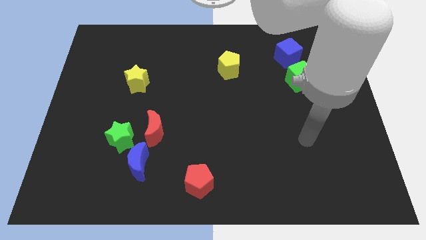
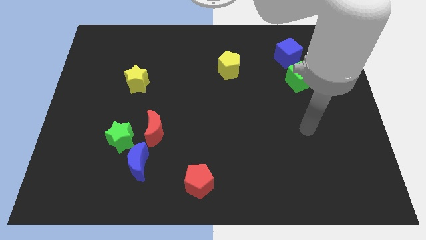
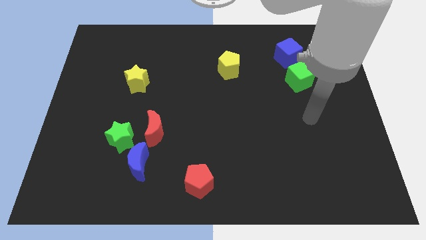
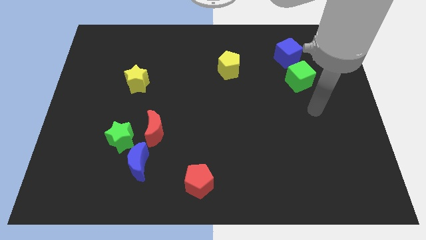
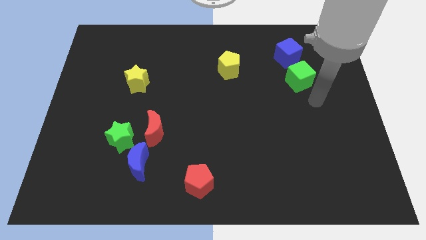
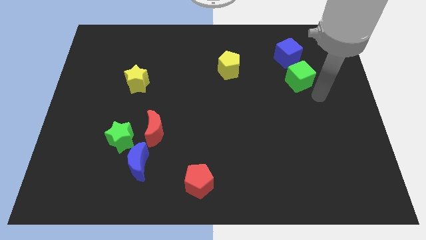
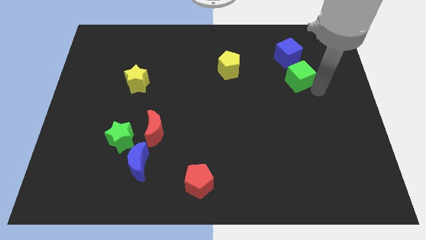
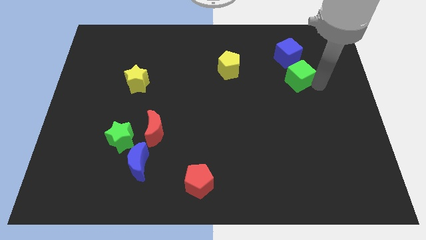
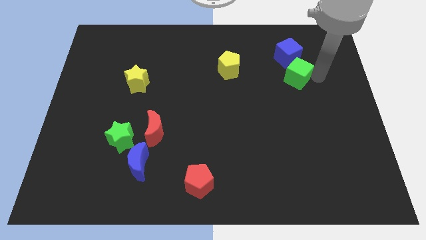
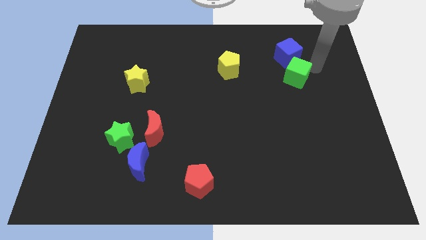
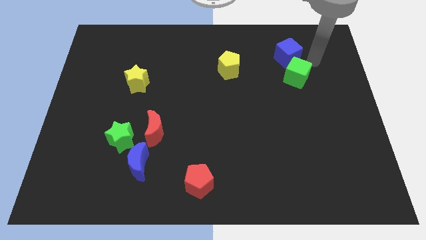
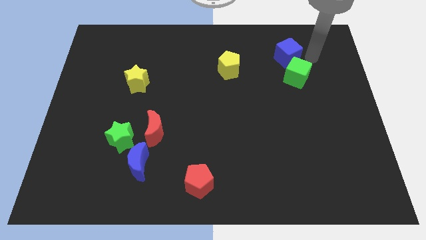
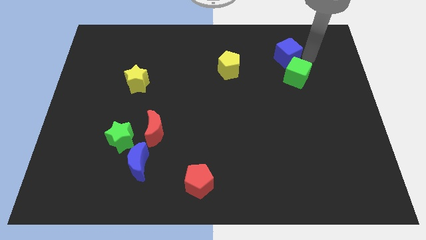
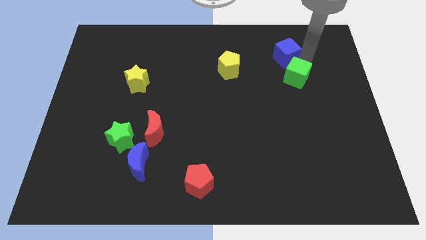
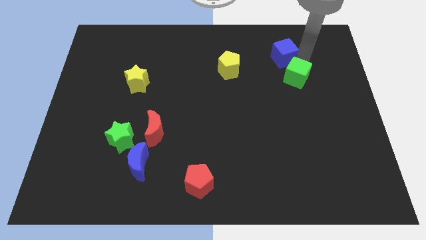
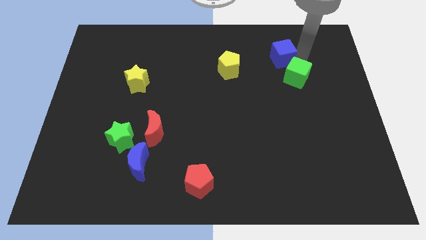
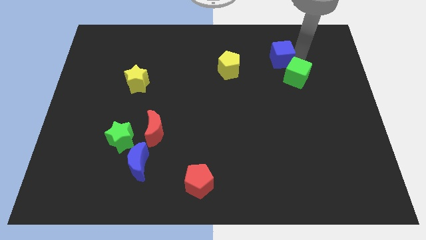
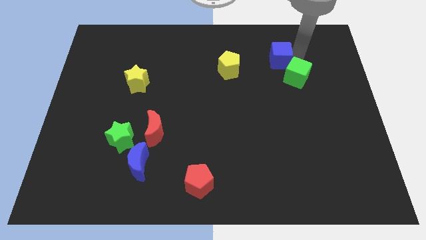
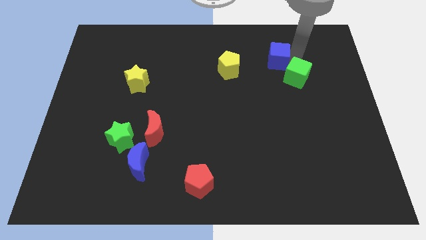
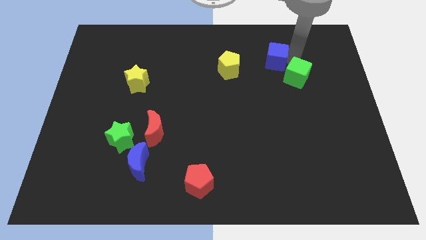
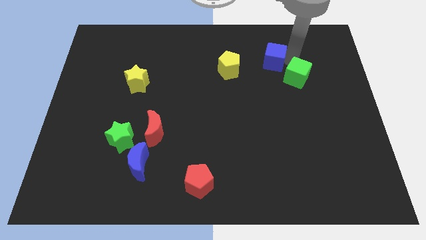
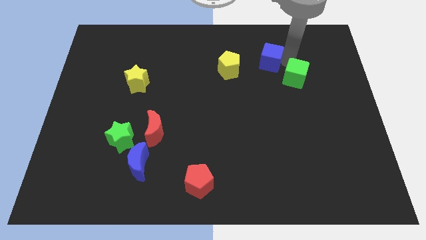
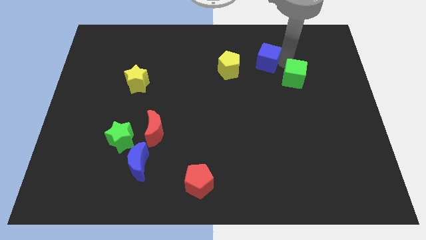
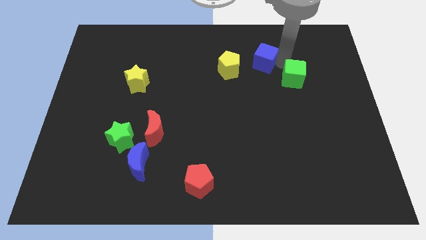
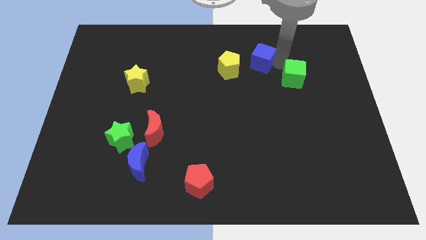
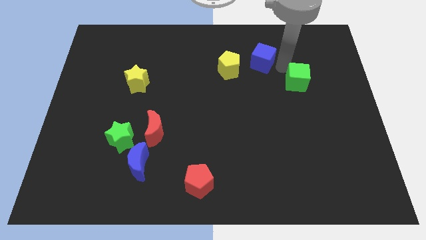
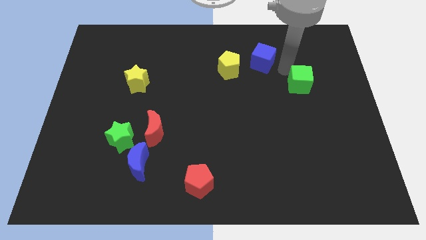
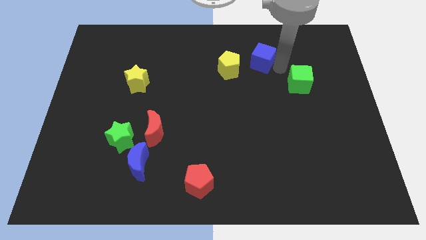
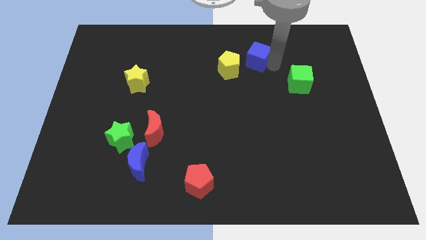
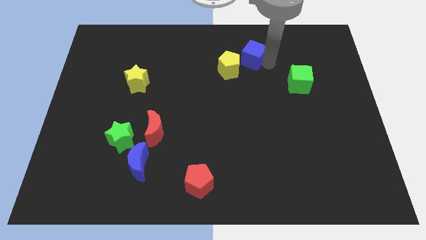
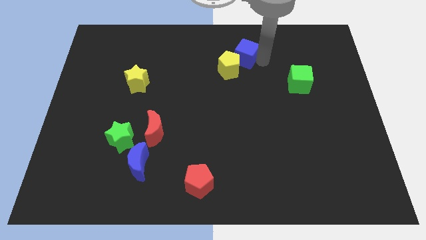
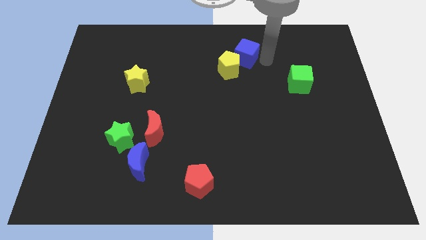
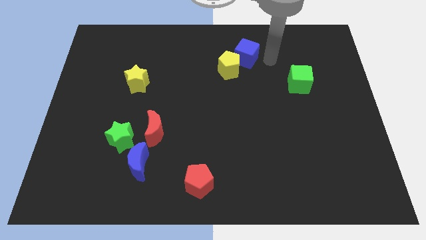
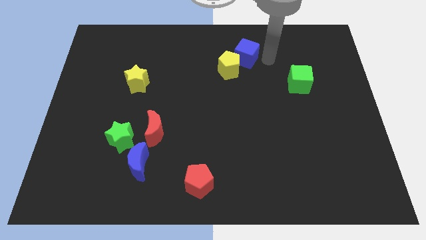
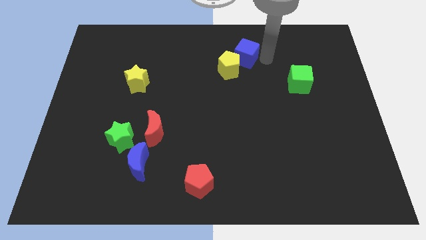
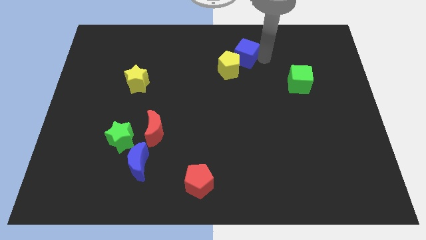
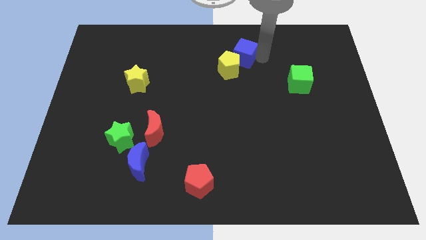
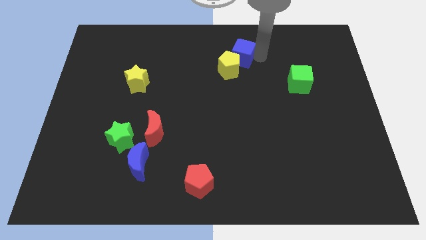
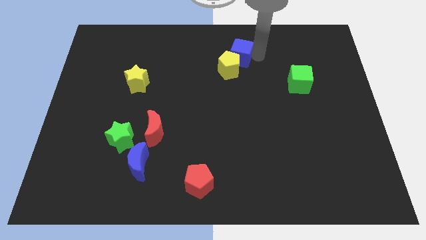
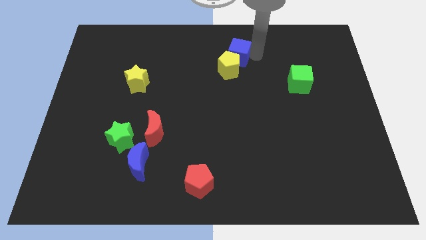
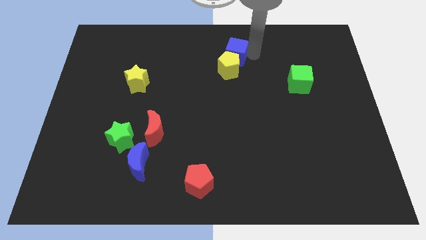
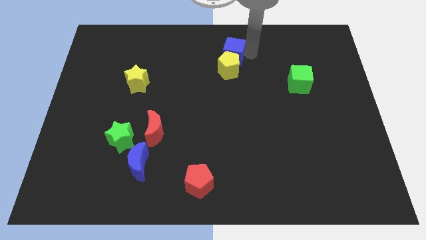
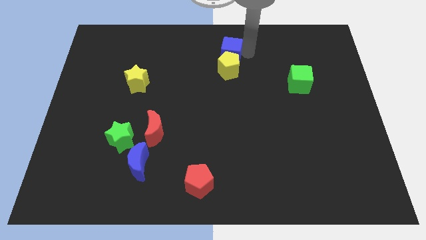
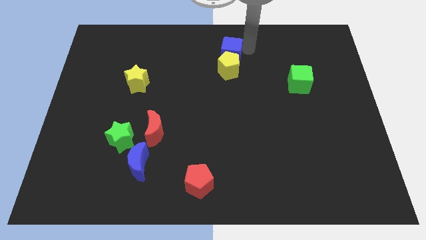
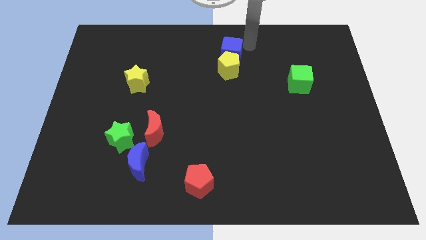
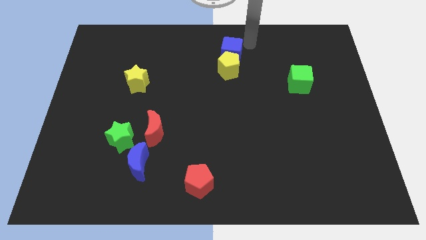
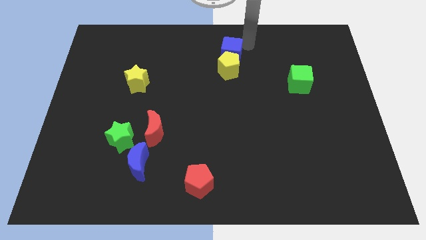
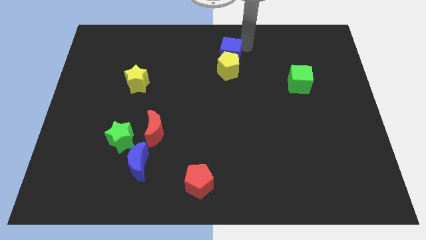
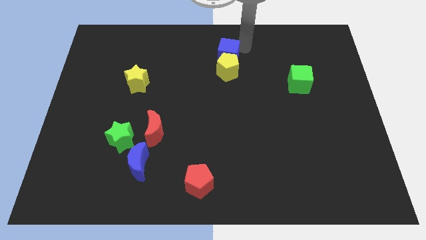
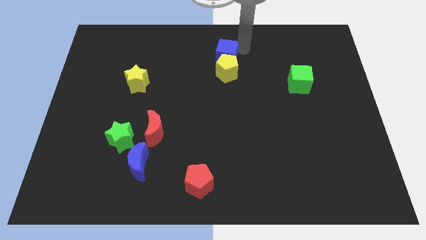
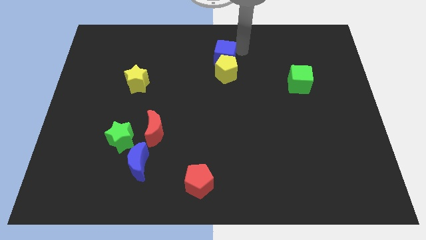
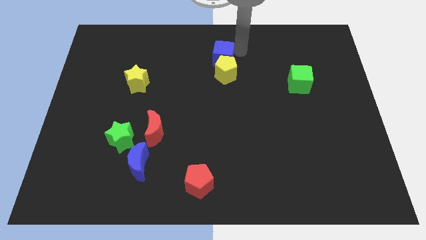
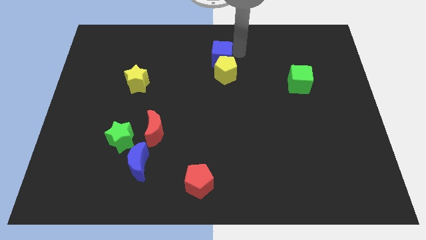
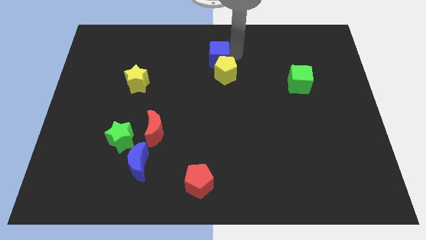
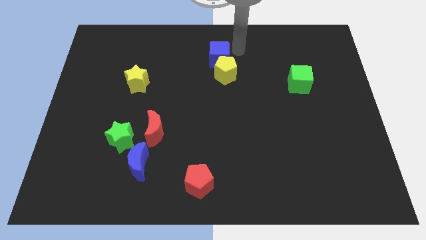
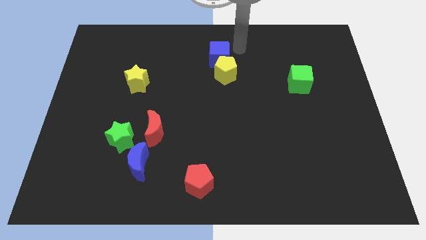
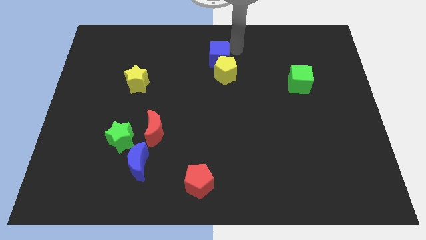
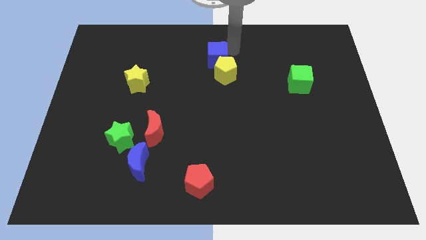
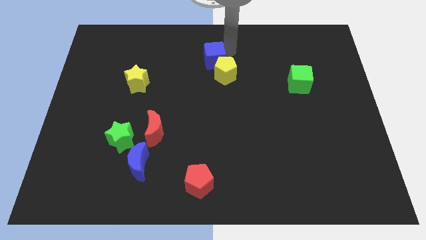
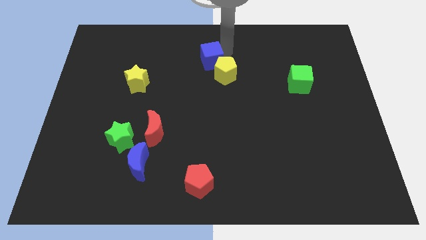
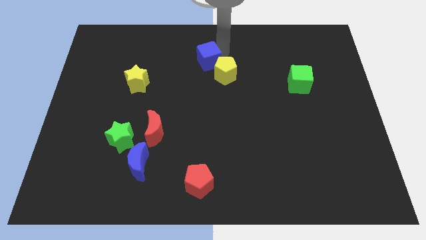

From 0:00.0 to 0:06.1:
push the blue cube just left of the yellow pentagon

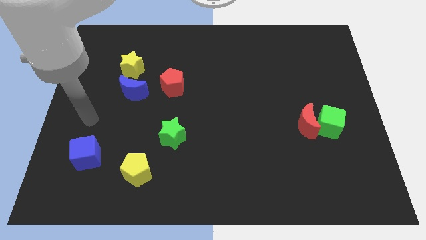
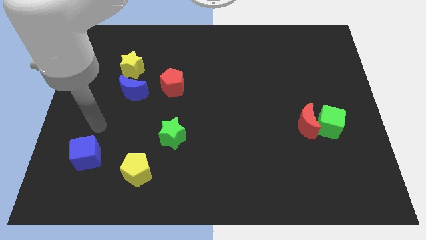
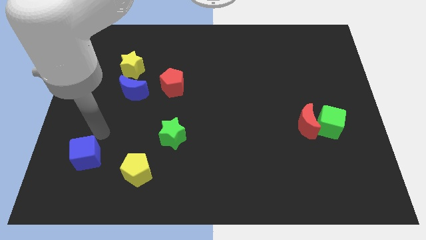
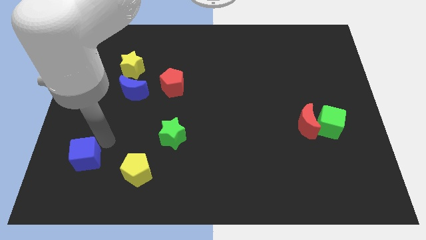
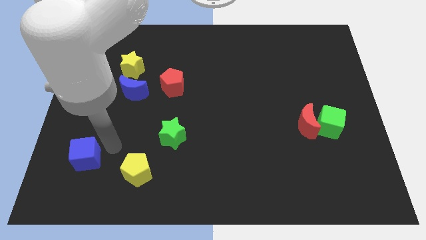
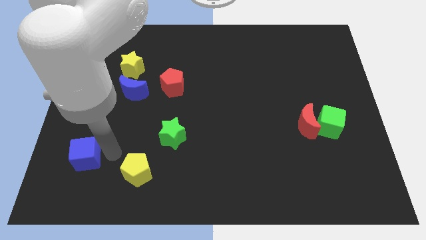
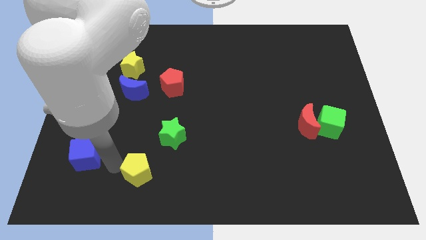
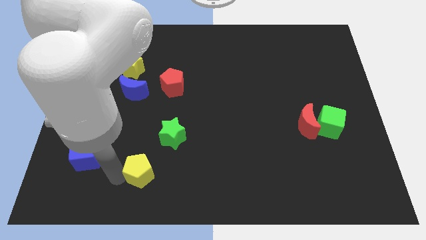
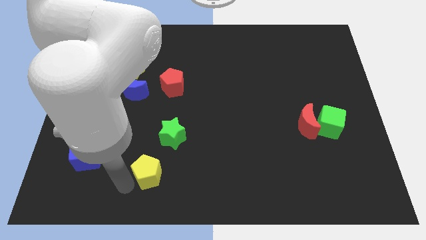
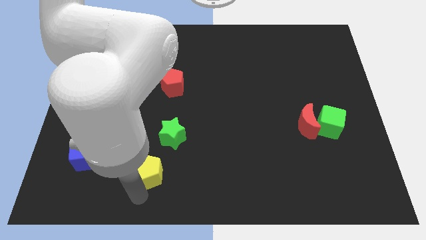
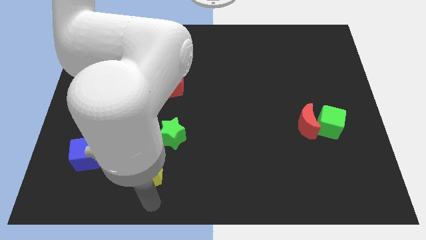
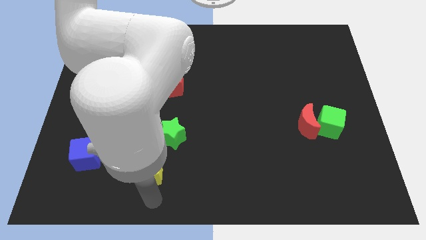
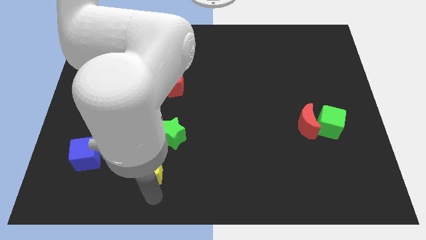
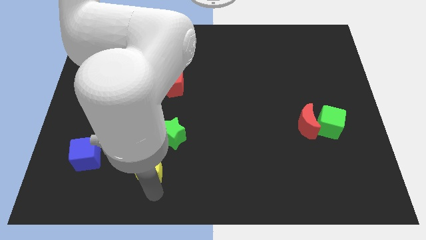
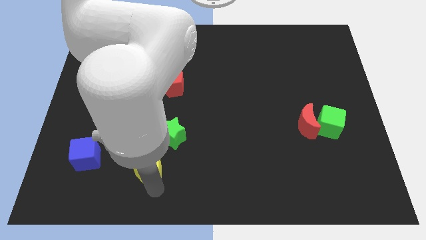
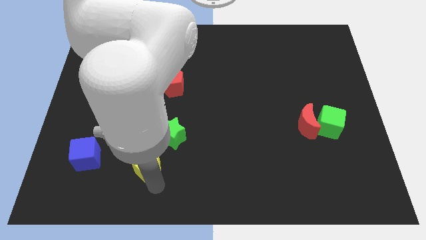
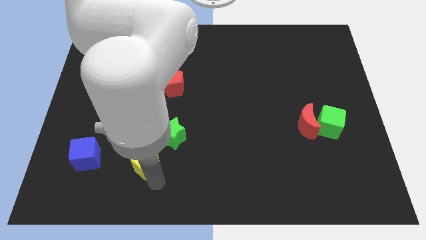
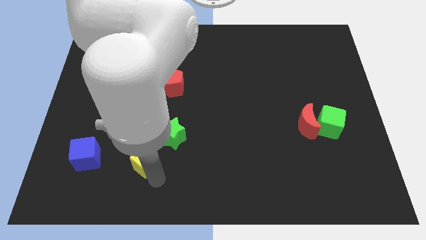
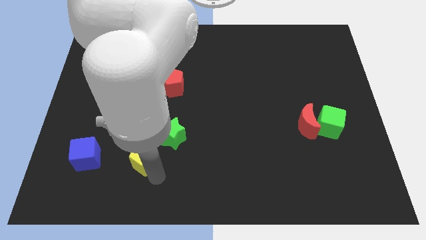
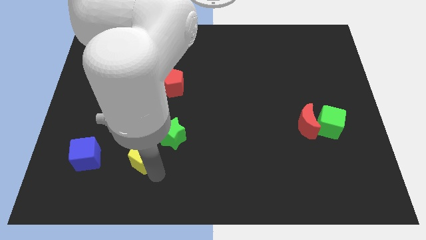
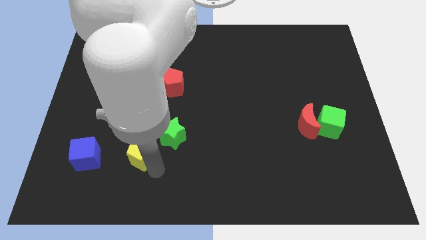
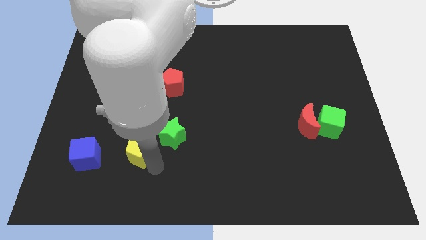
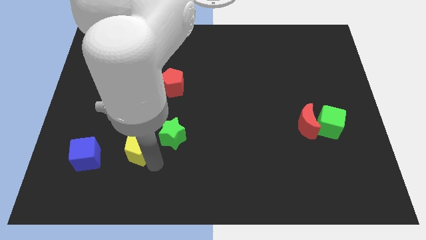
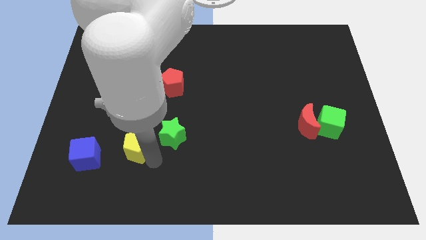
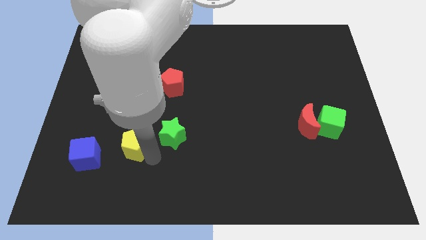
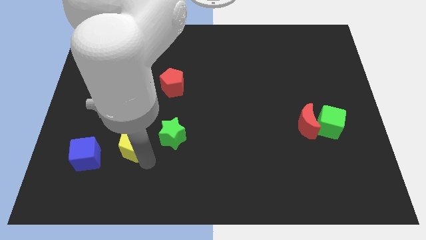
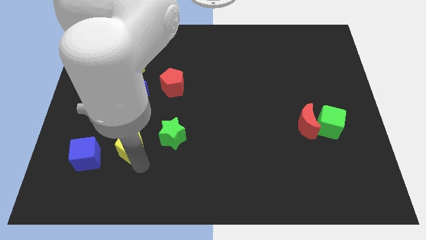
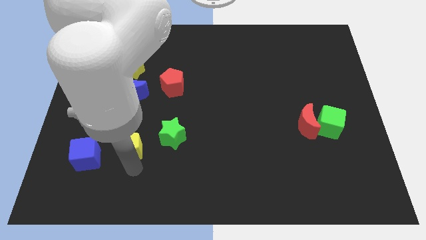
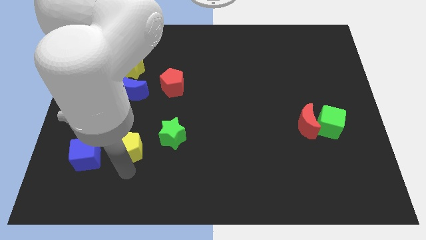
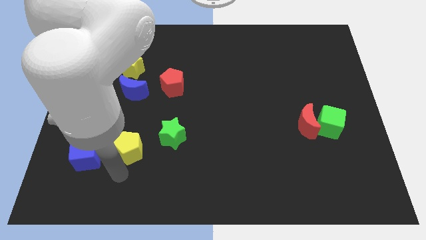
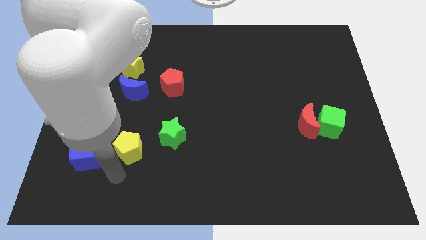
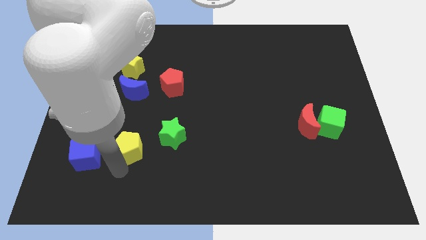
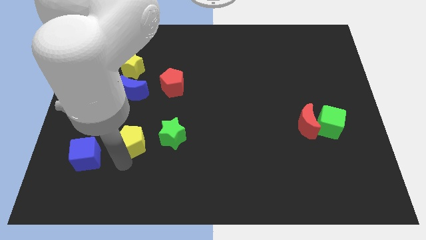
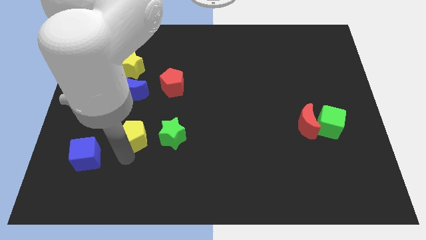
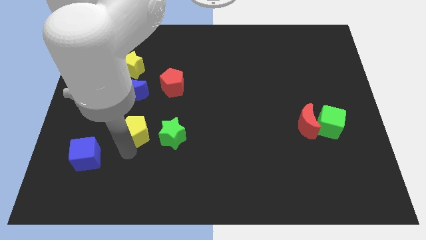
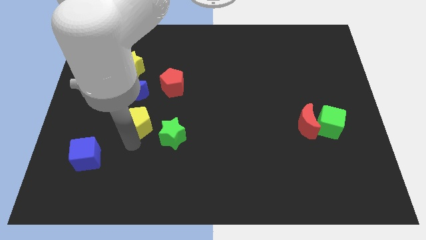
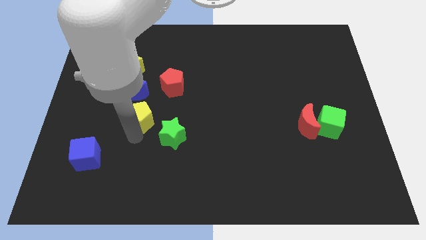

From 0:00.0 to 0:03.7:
push the yellow pentagon diagonally down and to the left of the red pentagon
